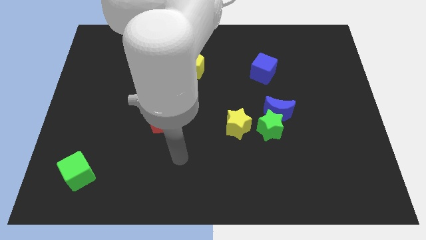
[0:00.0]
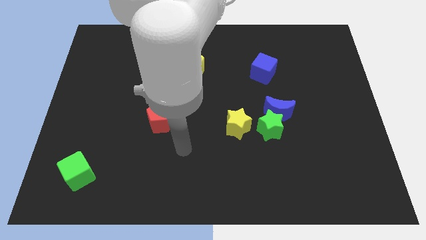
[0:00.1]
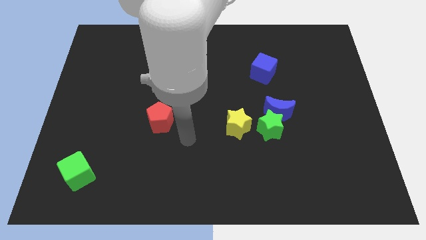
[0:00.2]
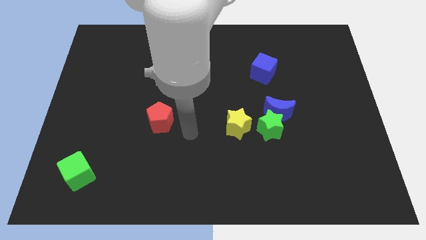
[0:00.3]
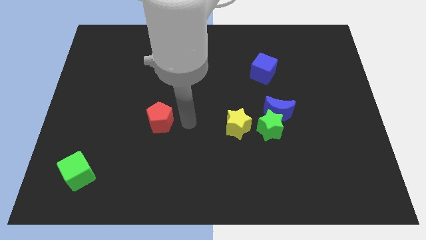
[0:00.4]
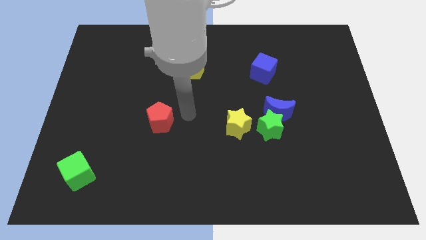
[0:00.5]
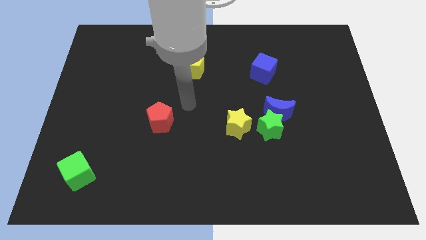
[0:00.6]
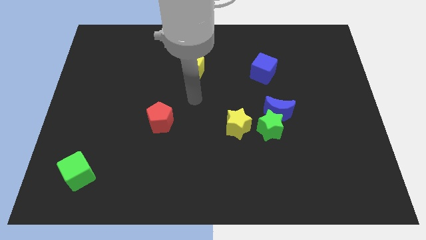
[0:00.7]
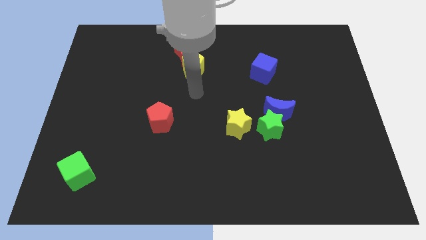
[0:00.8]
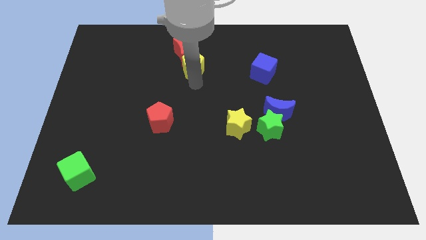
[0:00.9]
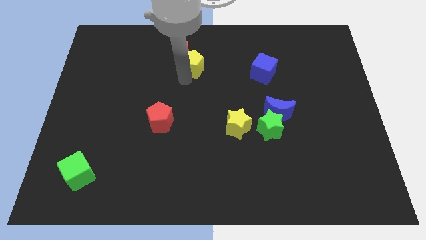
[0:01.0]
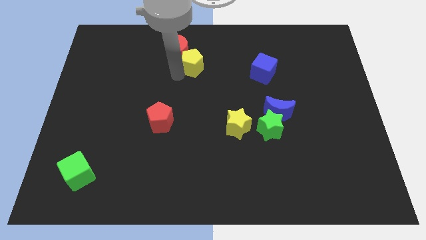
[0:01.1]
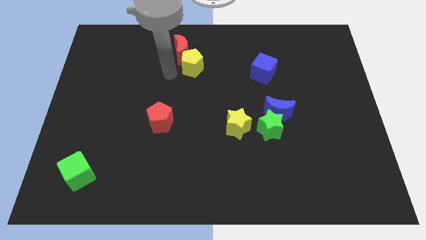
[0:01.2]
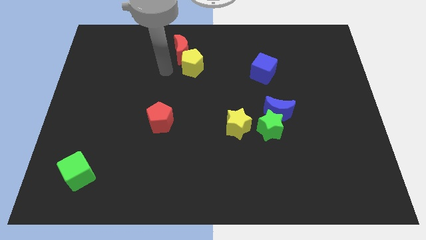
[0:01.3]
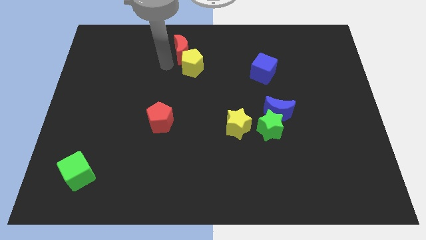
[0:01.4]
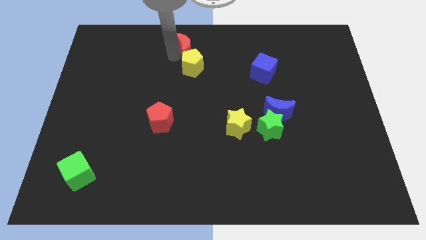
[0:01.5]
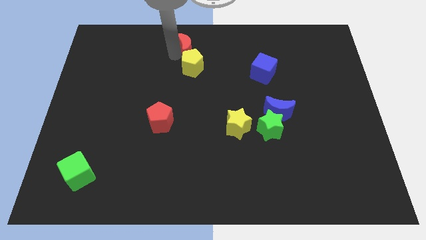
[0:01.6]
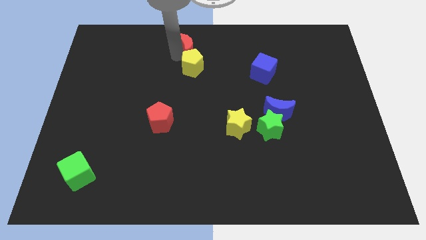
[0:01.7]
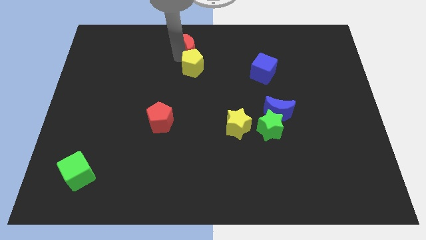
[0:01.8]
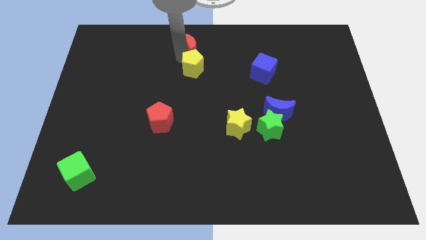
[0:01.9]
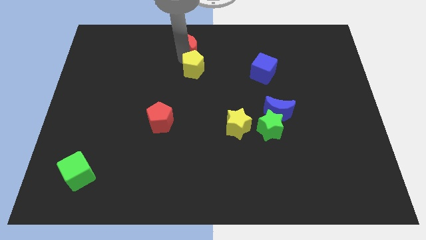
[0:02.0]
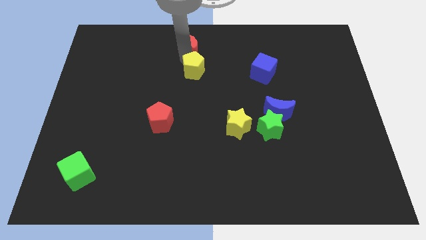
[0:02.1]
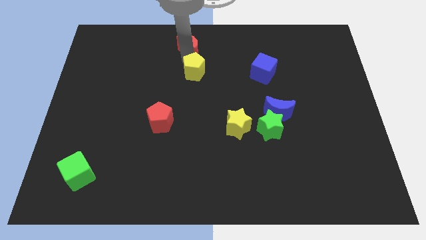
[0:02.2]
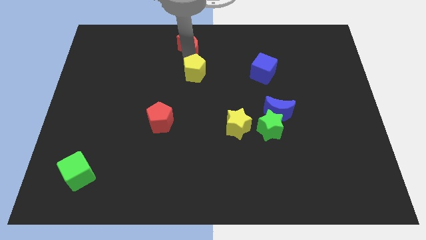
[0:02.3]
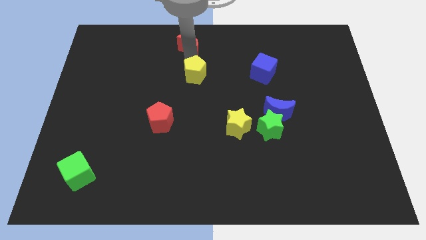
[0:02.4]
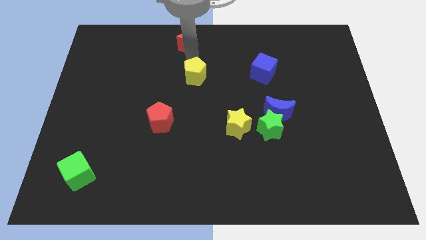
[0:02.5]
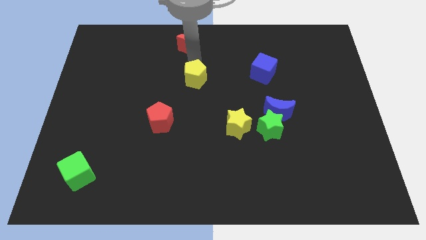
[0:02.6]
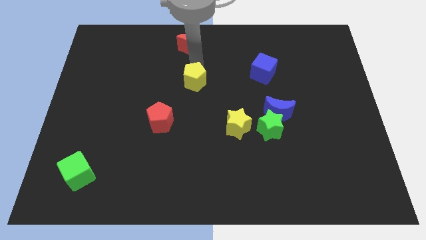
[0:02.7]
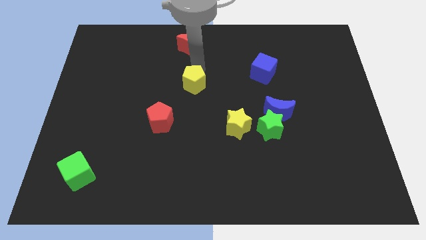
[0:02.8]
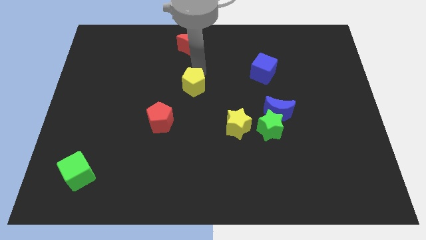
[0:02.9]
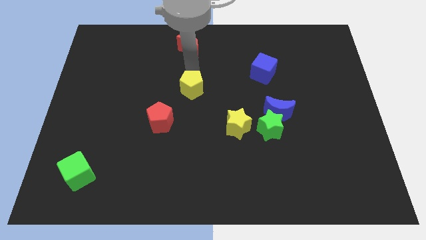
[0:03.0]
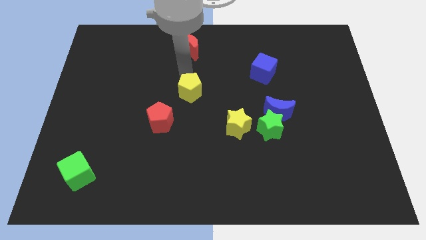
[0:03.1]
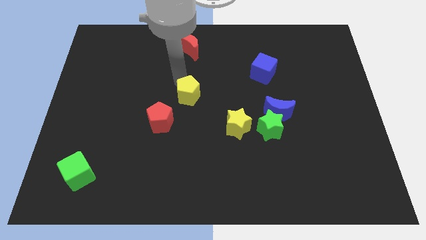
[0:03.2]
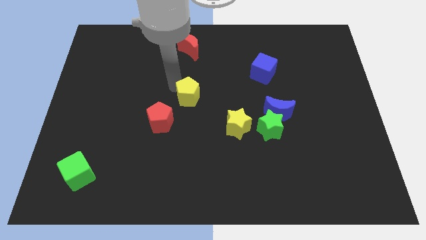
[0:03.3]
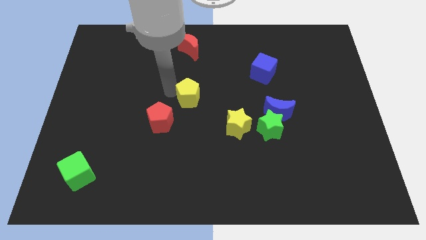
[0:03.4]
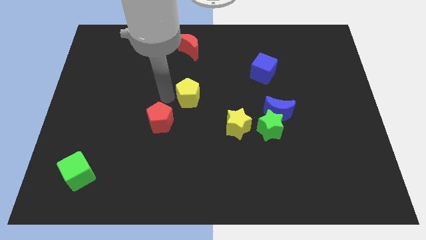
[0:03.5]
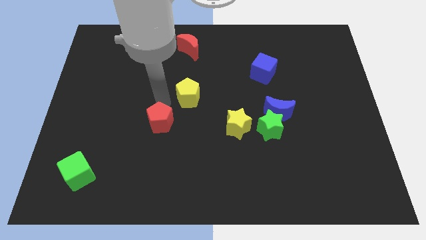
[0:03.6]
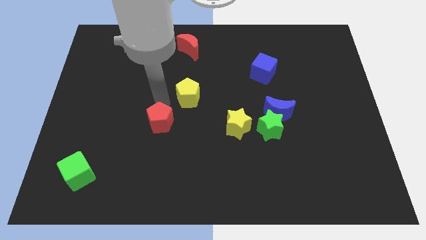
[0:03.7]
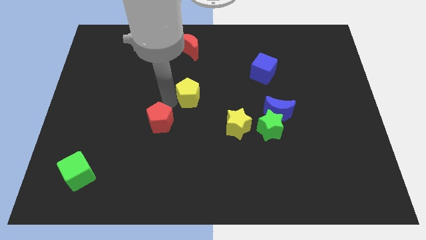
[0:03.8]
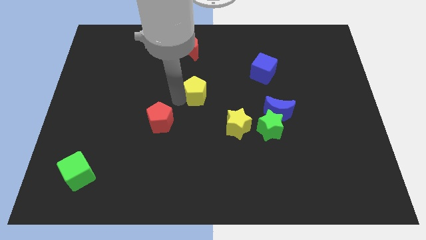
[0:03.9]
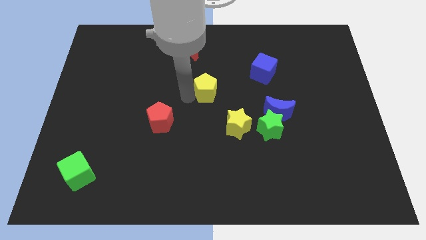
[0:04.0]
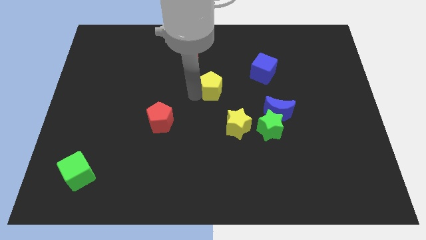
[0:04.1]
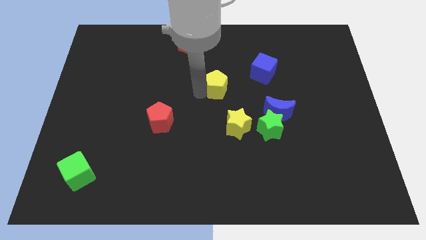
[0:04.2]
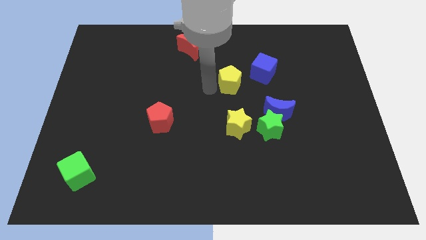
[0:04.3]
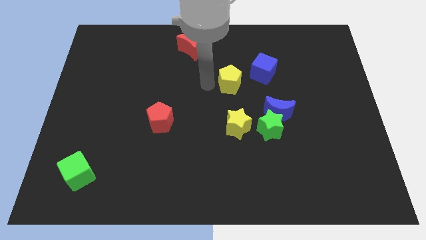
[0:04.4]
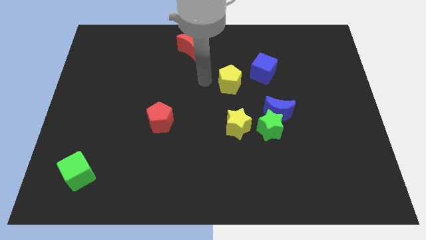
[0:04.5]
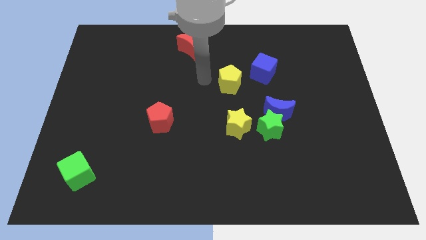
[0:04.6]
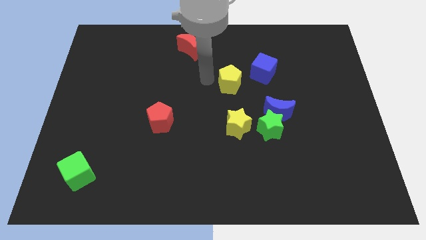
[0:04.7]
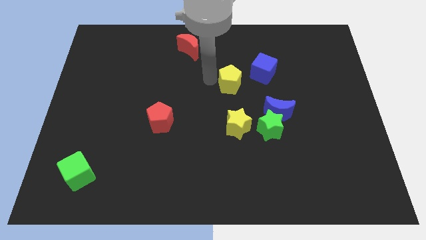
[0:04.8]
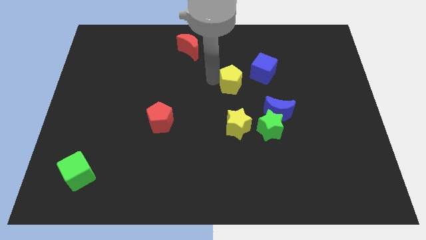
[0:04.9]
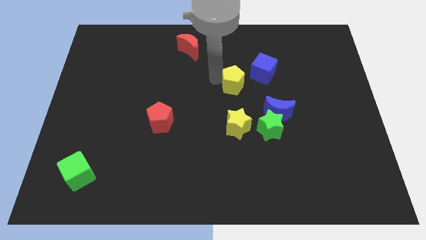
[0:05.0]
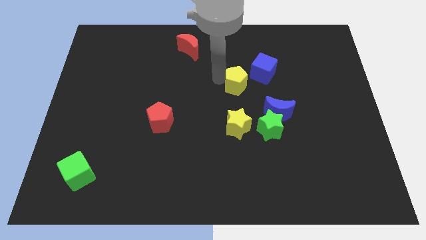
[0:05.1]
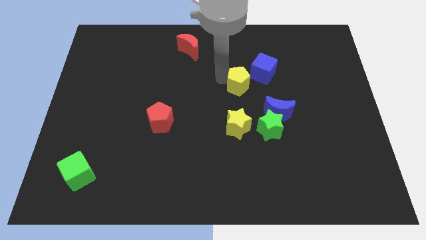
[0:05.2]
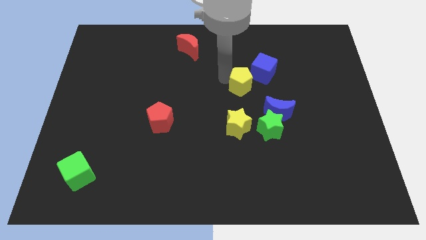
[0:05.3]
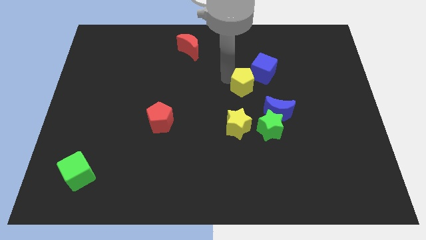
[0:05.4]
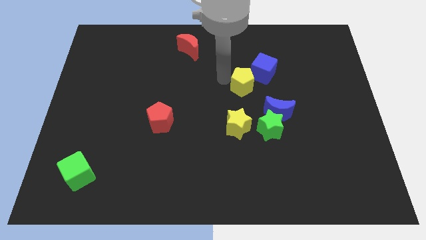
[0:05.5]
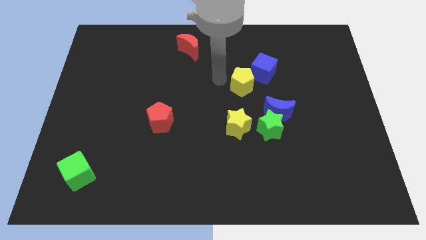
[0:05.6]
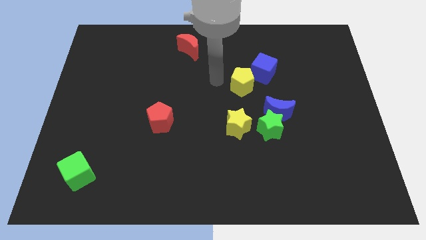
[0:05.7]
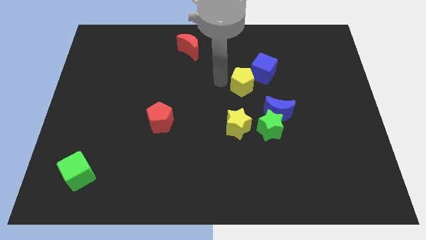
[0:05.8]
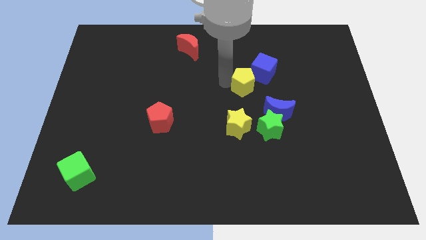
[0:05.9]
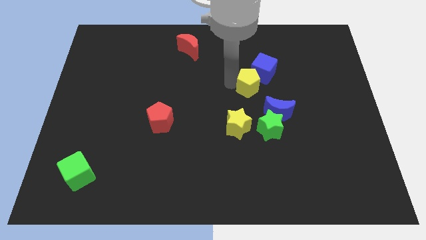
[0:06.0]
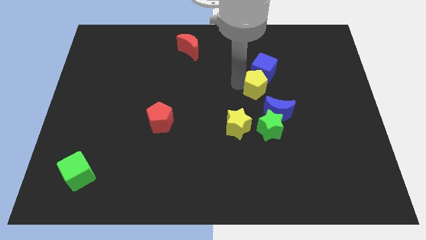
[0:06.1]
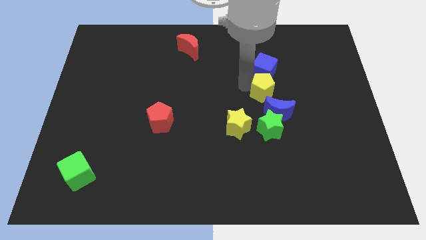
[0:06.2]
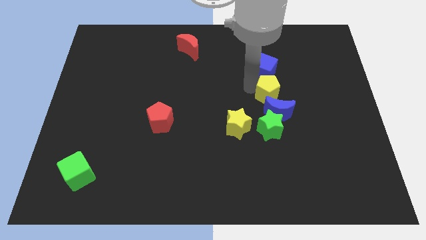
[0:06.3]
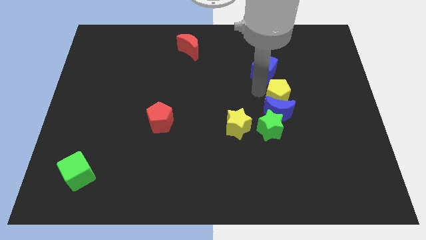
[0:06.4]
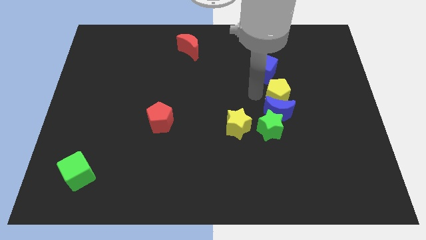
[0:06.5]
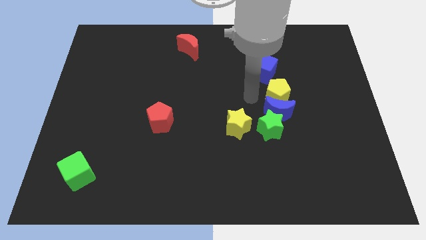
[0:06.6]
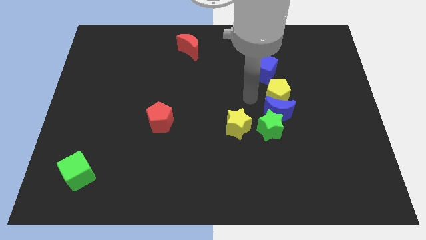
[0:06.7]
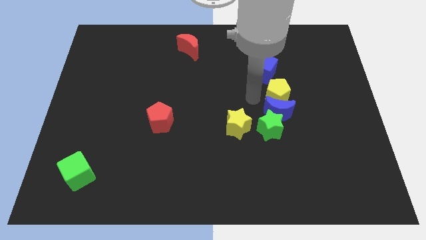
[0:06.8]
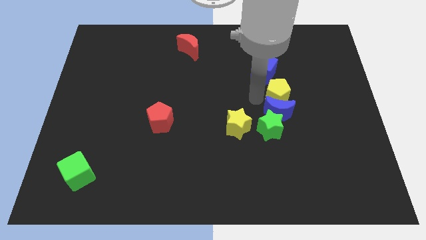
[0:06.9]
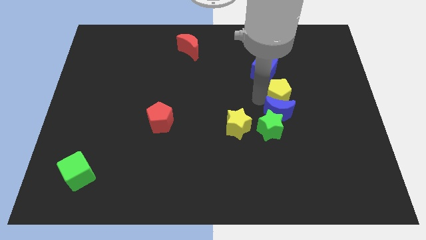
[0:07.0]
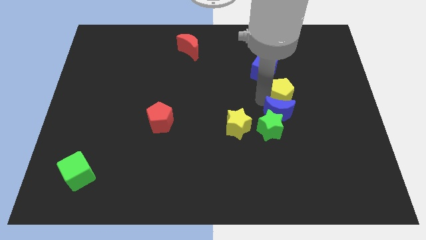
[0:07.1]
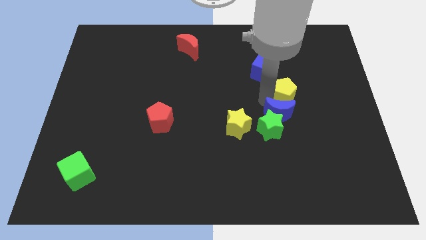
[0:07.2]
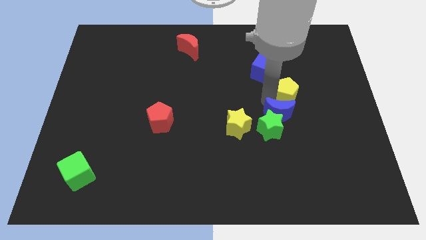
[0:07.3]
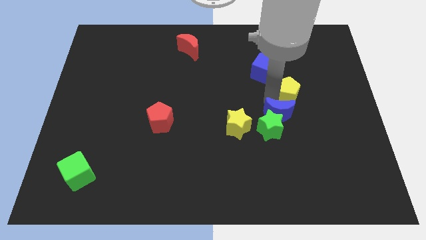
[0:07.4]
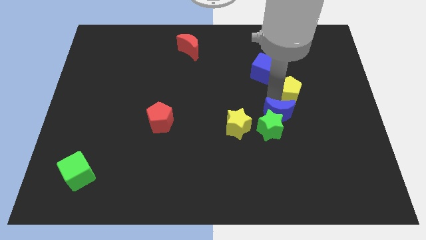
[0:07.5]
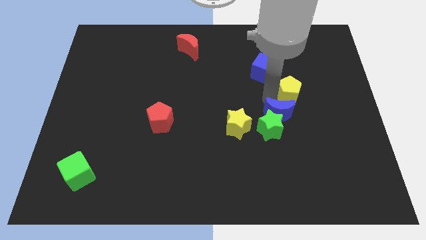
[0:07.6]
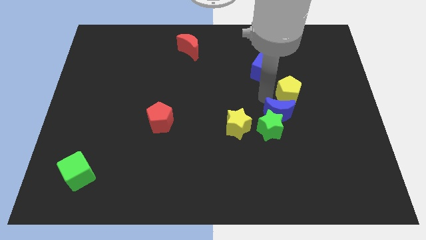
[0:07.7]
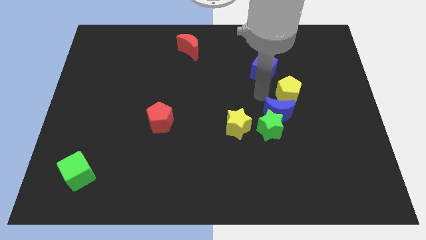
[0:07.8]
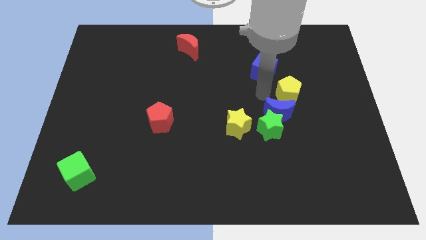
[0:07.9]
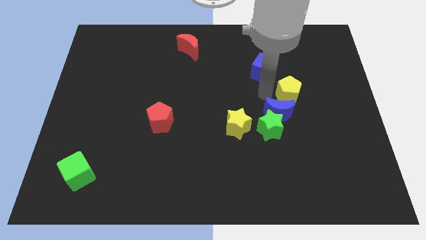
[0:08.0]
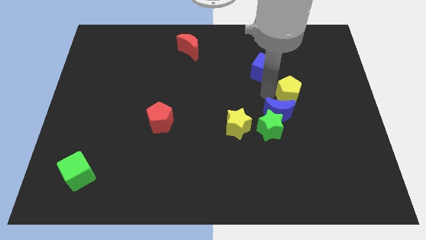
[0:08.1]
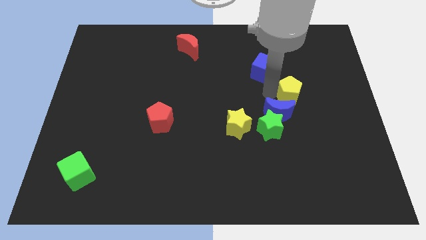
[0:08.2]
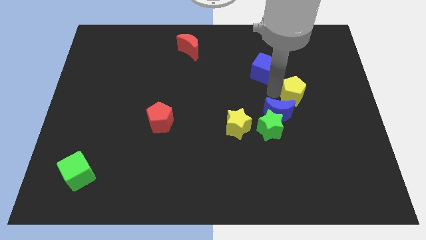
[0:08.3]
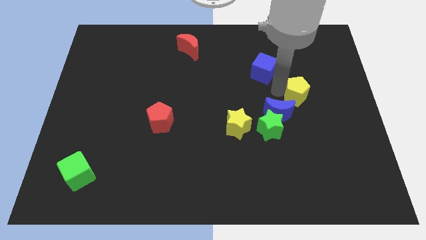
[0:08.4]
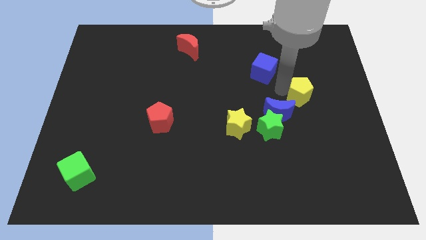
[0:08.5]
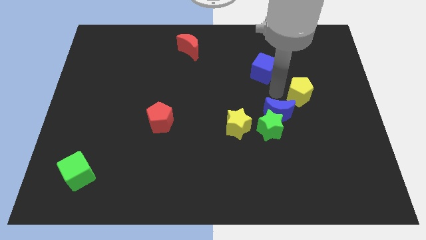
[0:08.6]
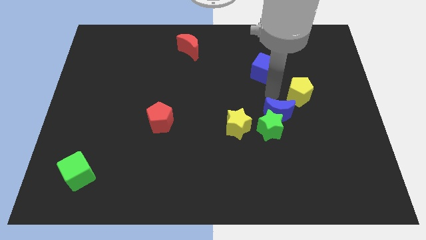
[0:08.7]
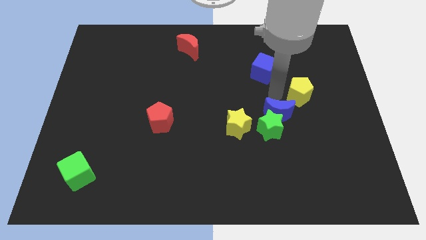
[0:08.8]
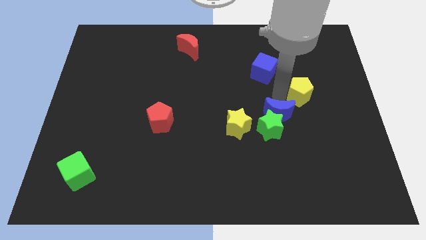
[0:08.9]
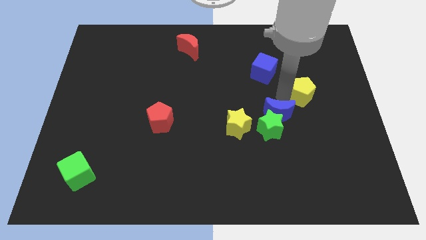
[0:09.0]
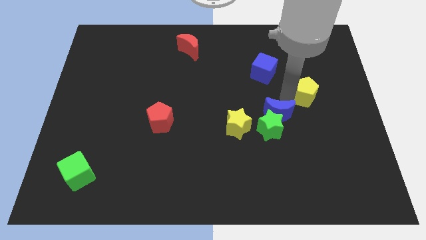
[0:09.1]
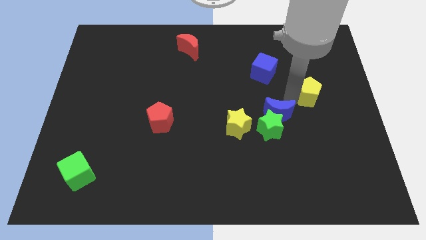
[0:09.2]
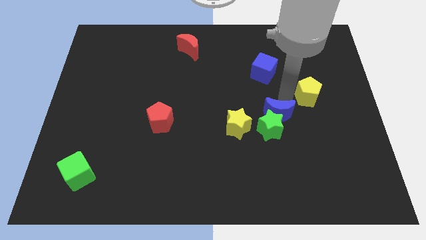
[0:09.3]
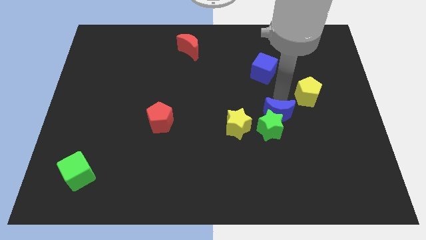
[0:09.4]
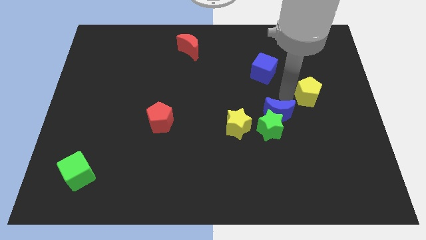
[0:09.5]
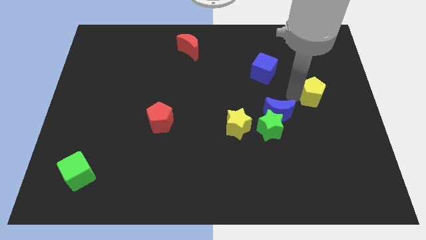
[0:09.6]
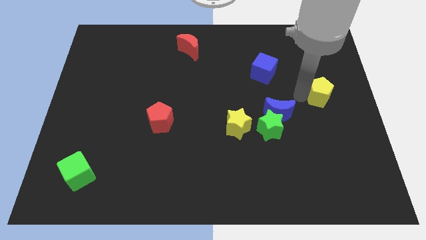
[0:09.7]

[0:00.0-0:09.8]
push the yellow pentagon to the center right
